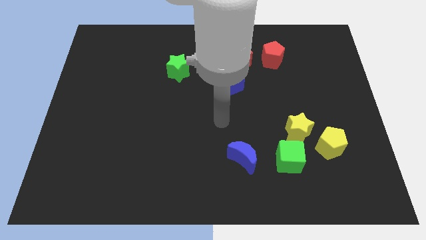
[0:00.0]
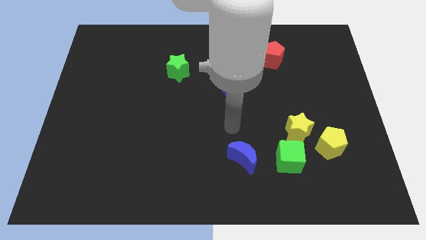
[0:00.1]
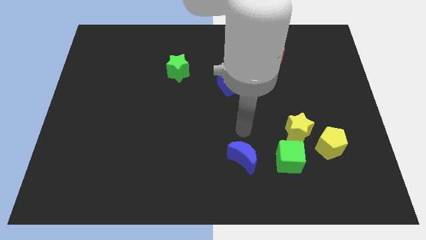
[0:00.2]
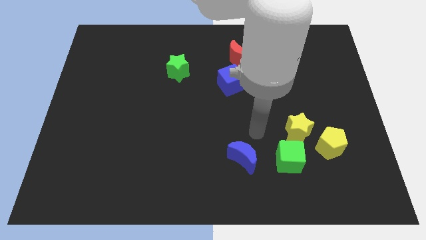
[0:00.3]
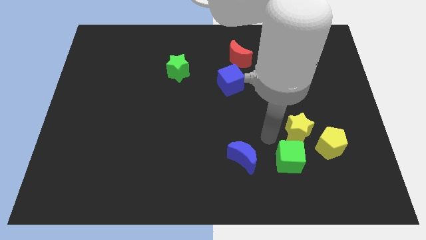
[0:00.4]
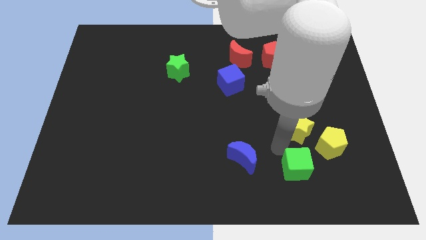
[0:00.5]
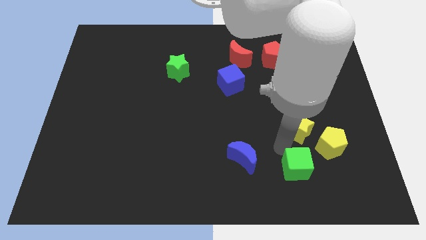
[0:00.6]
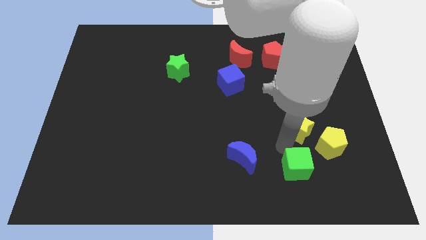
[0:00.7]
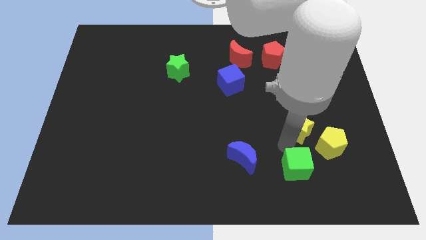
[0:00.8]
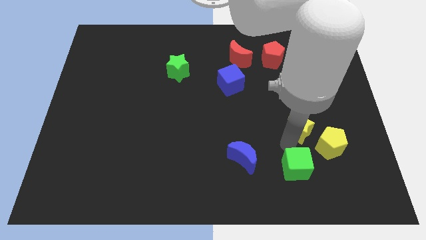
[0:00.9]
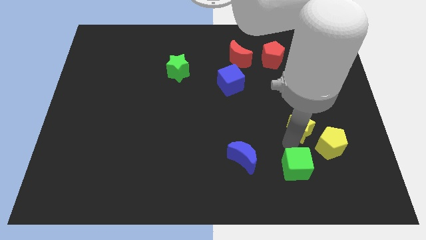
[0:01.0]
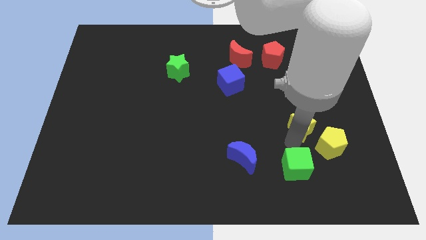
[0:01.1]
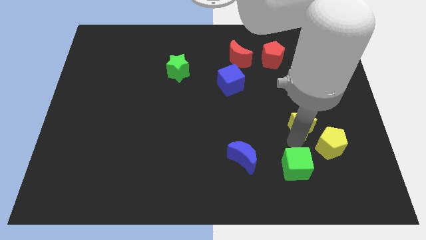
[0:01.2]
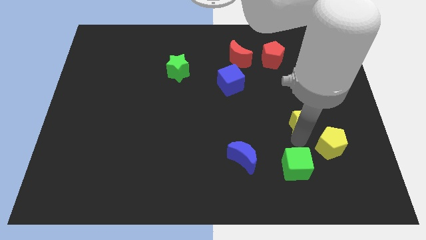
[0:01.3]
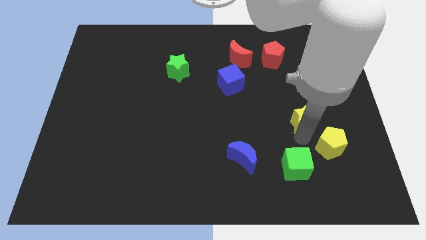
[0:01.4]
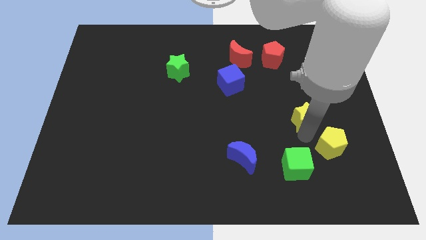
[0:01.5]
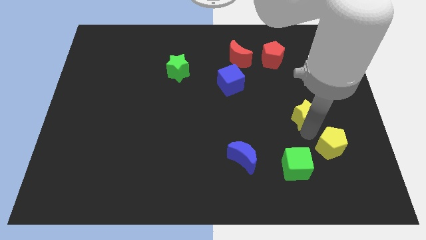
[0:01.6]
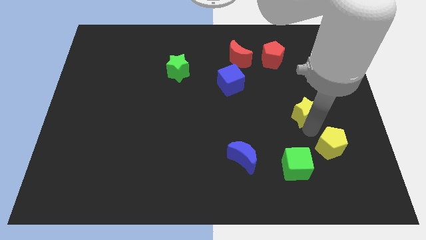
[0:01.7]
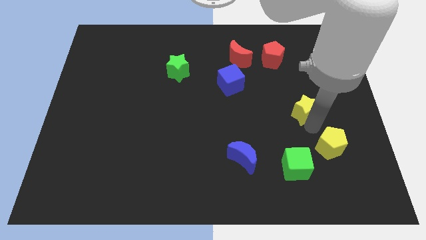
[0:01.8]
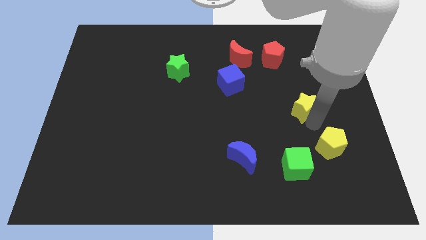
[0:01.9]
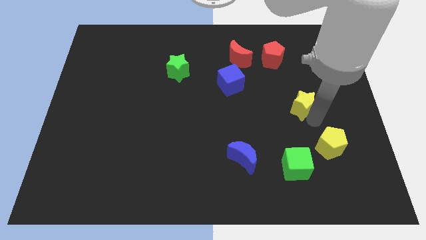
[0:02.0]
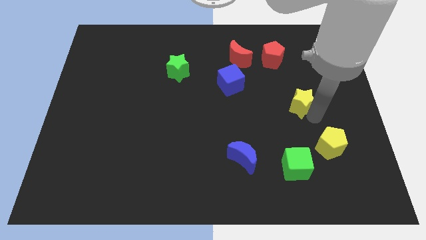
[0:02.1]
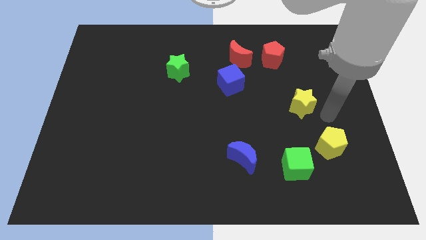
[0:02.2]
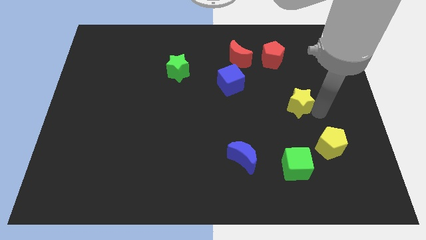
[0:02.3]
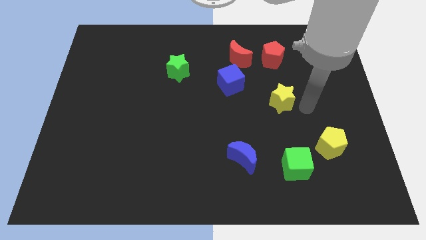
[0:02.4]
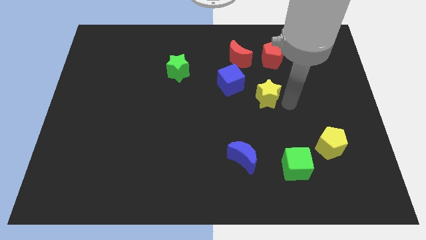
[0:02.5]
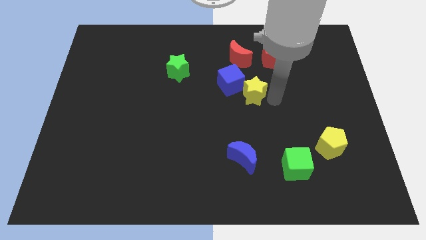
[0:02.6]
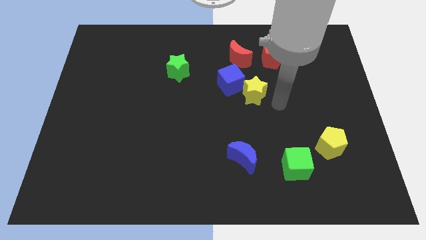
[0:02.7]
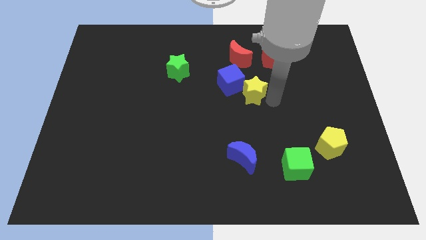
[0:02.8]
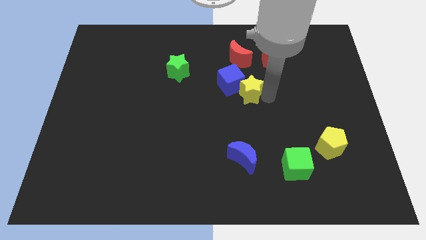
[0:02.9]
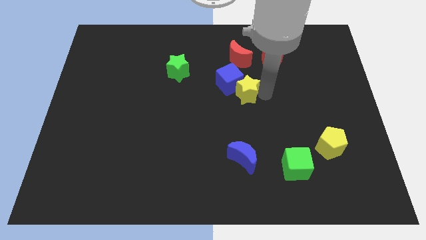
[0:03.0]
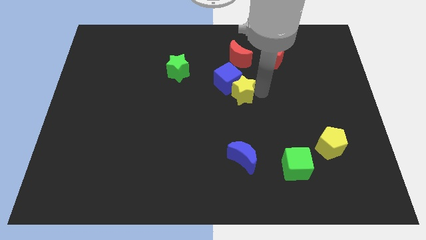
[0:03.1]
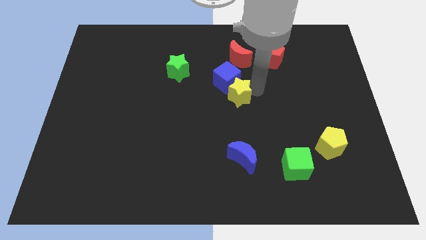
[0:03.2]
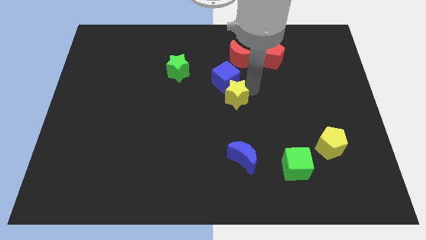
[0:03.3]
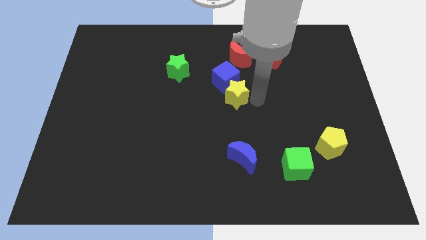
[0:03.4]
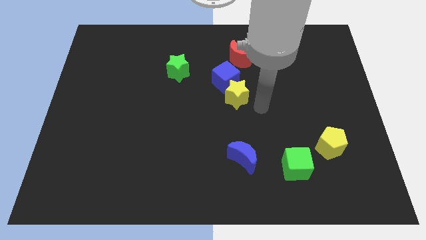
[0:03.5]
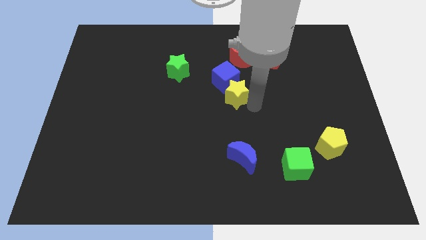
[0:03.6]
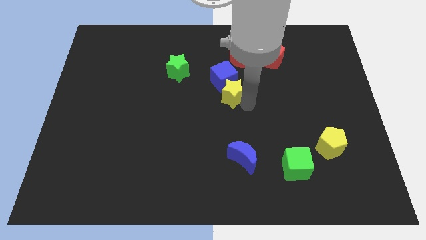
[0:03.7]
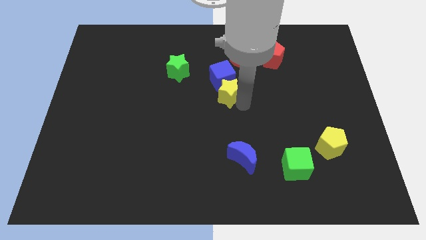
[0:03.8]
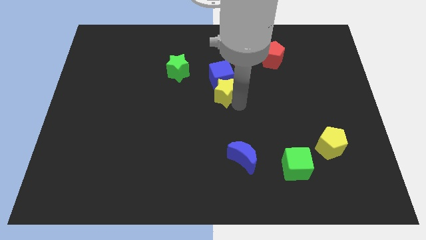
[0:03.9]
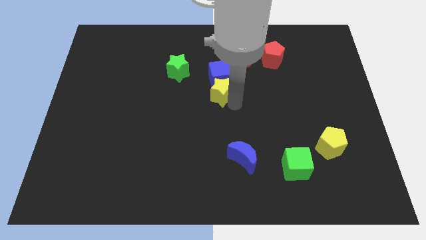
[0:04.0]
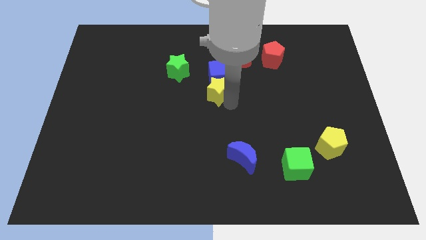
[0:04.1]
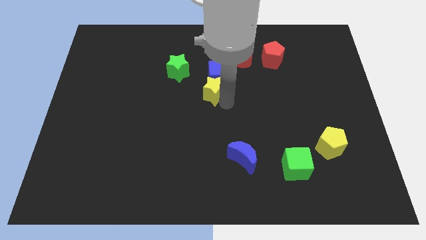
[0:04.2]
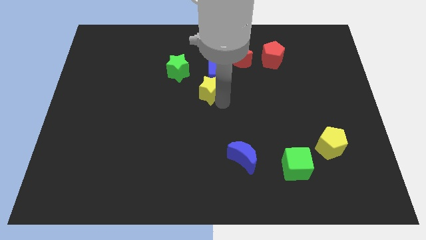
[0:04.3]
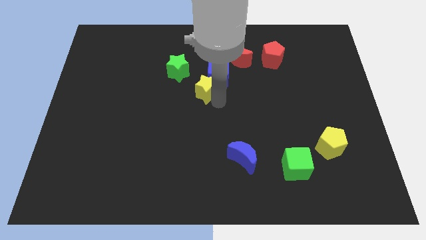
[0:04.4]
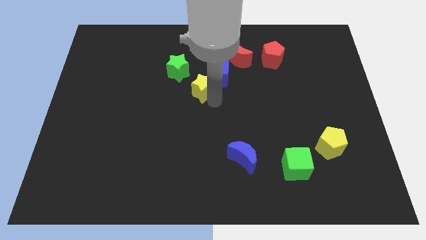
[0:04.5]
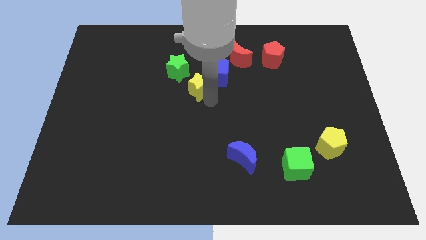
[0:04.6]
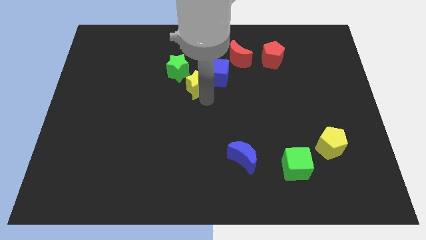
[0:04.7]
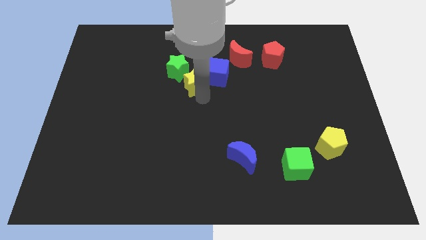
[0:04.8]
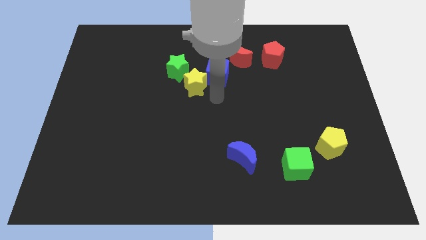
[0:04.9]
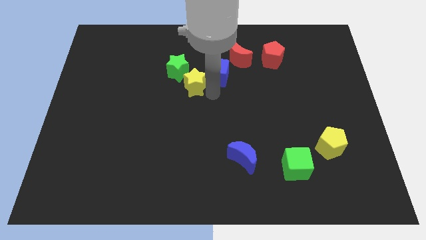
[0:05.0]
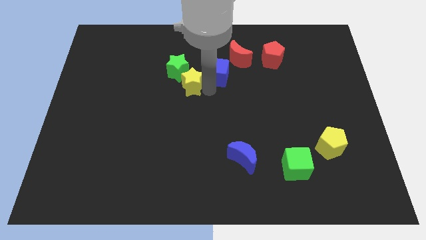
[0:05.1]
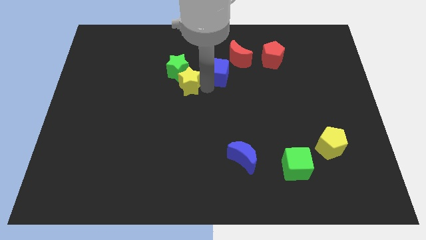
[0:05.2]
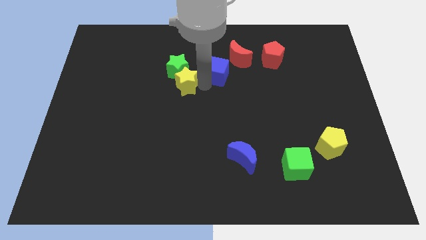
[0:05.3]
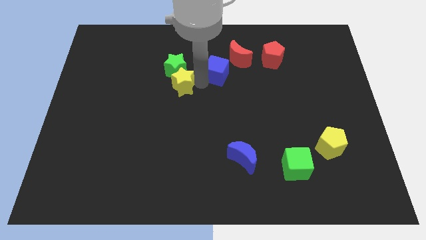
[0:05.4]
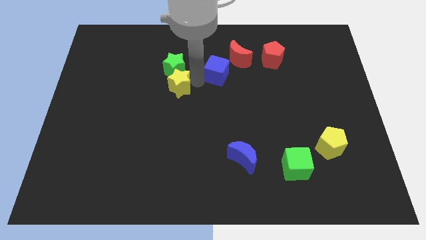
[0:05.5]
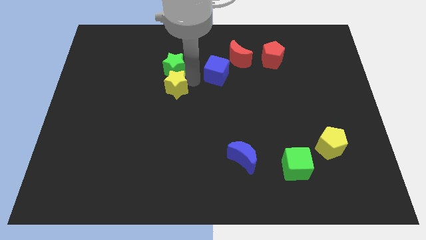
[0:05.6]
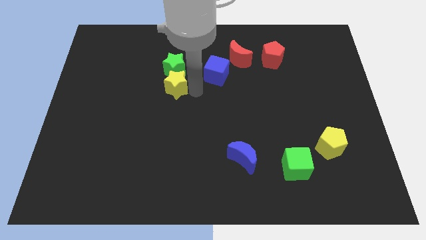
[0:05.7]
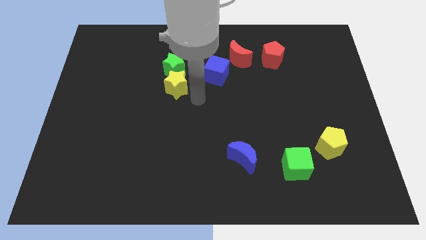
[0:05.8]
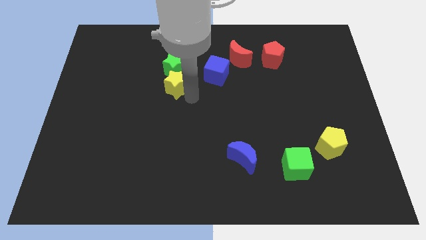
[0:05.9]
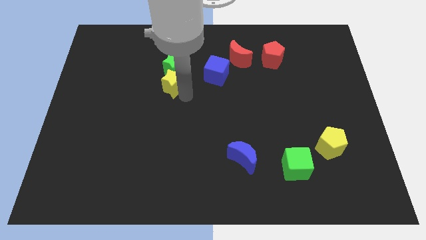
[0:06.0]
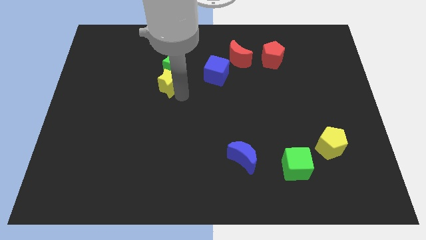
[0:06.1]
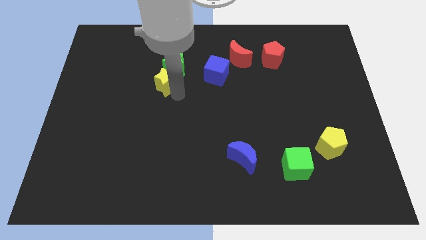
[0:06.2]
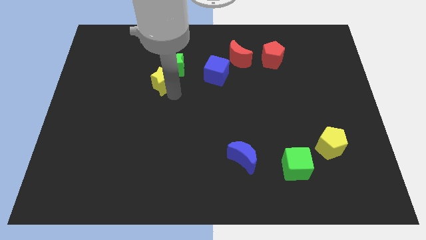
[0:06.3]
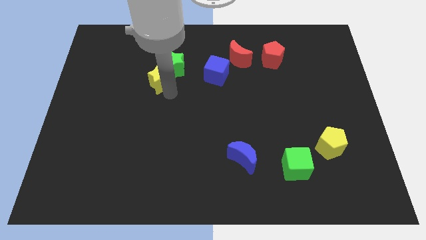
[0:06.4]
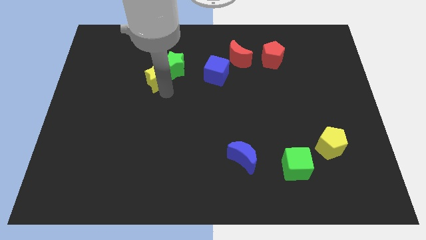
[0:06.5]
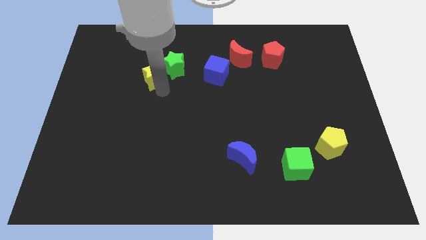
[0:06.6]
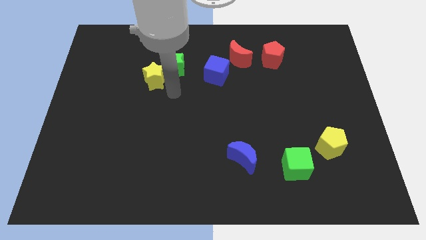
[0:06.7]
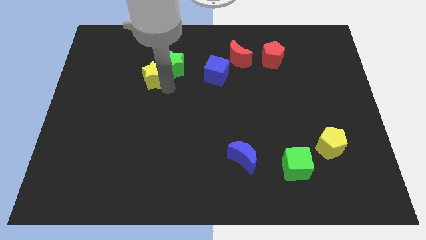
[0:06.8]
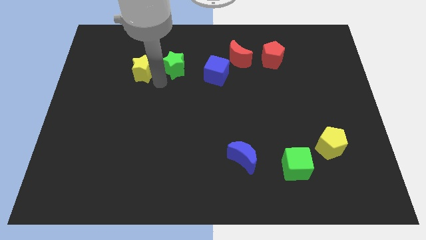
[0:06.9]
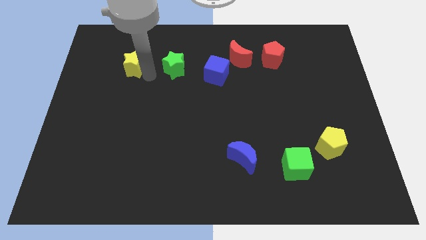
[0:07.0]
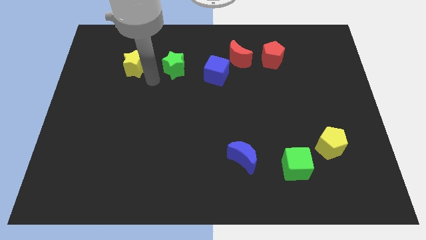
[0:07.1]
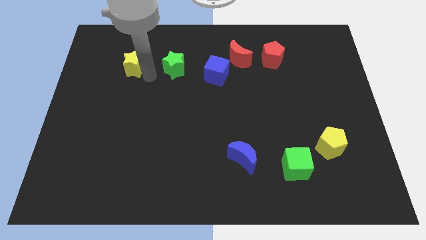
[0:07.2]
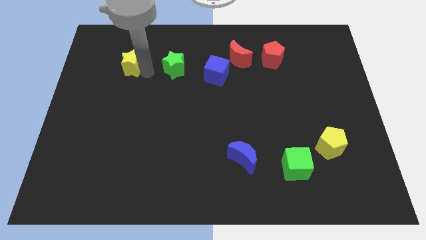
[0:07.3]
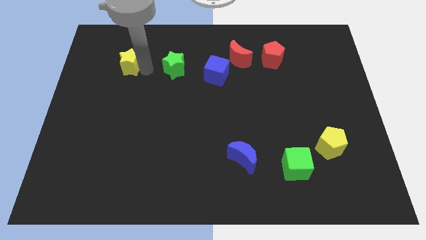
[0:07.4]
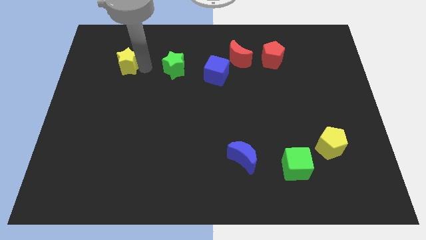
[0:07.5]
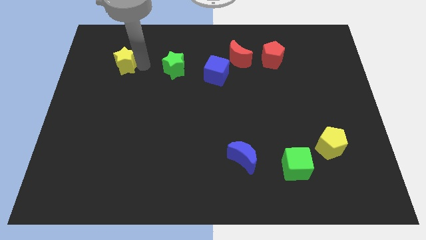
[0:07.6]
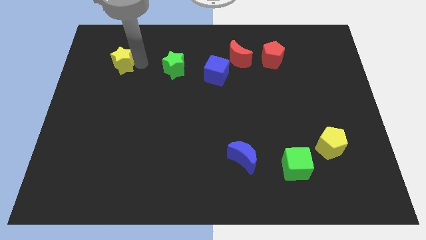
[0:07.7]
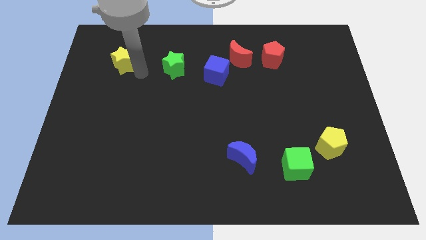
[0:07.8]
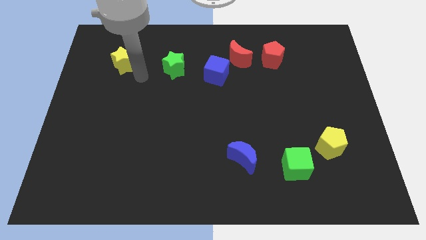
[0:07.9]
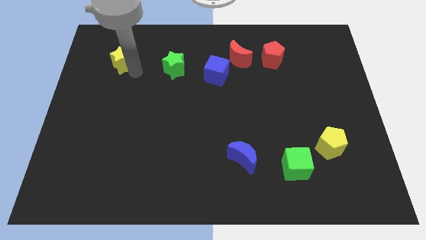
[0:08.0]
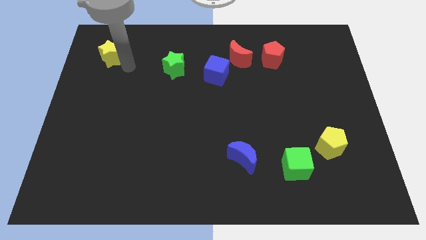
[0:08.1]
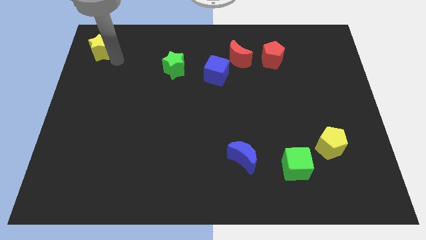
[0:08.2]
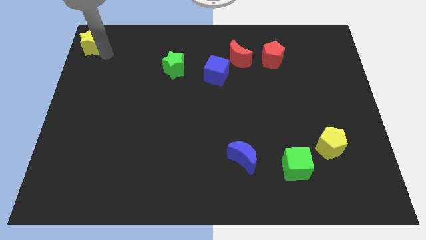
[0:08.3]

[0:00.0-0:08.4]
push the yellow star to the top left
